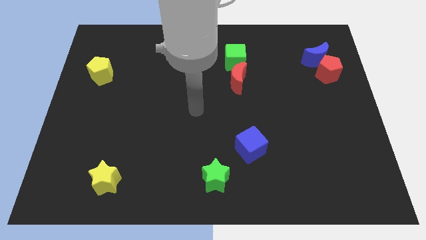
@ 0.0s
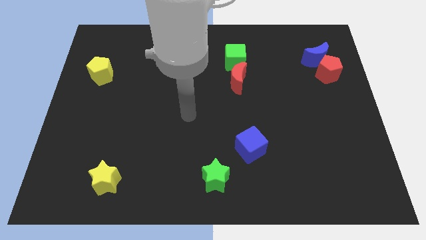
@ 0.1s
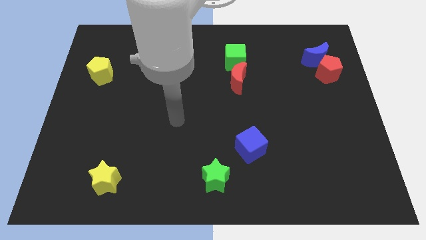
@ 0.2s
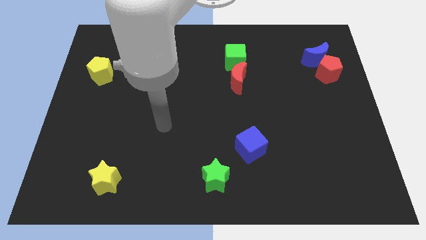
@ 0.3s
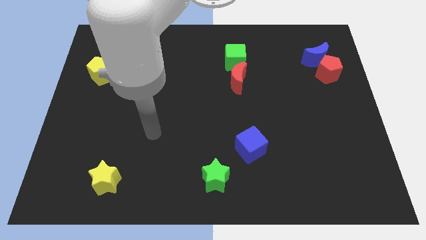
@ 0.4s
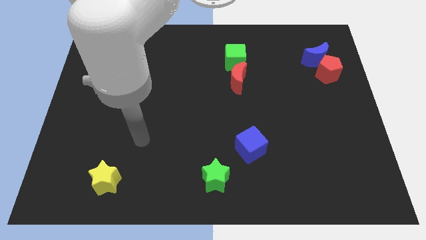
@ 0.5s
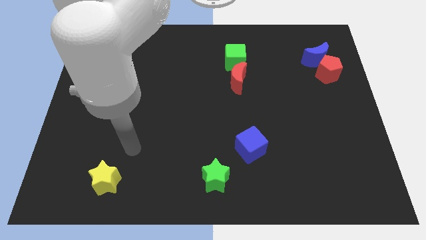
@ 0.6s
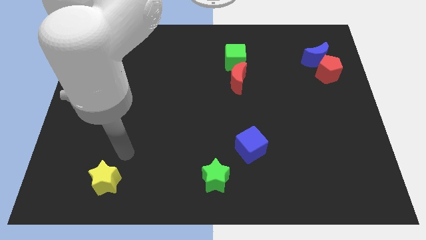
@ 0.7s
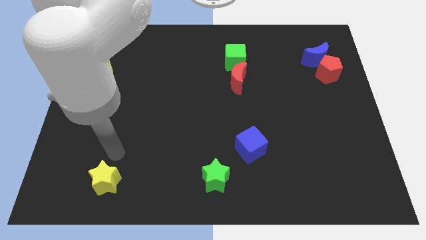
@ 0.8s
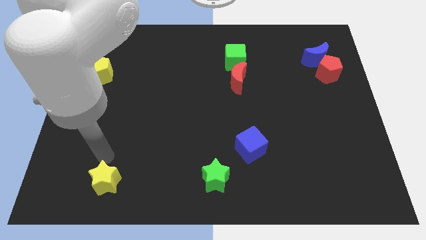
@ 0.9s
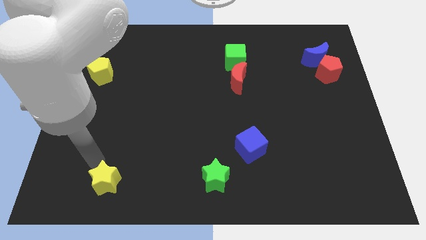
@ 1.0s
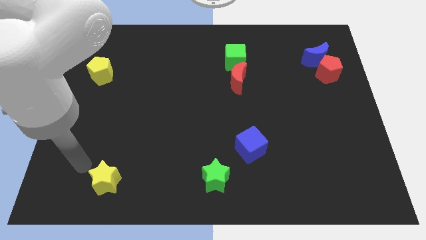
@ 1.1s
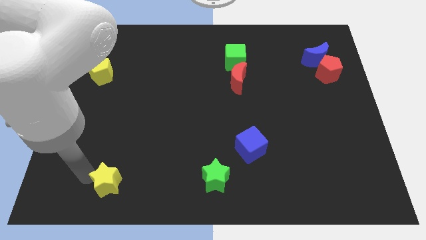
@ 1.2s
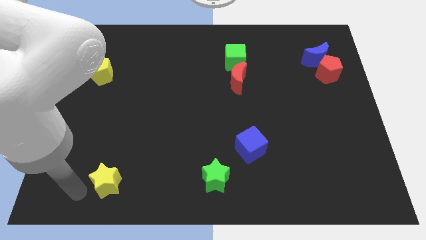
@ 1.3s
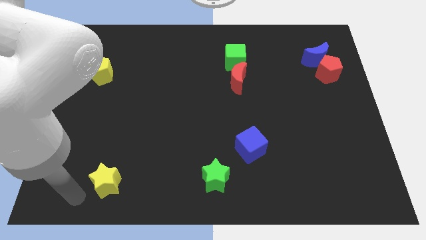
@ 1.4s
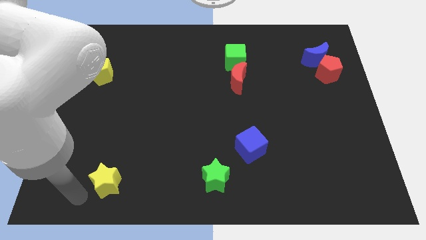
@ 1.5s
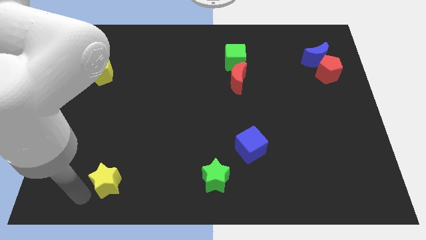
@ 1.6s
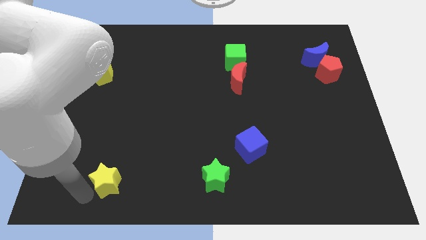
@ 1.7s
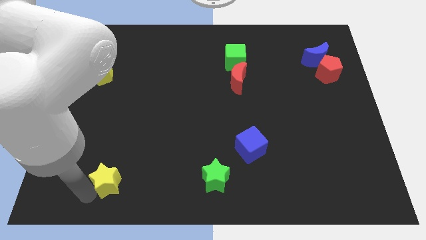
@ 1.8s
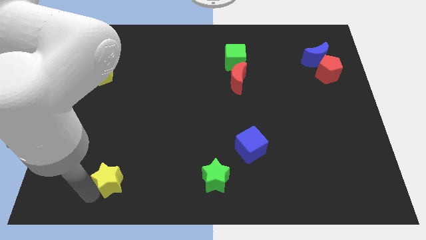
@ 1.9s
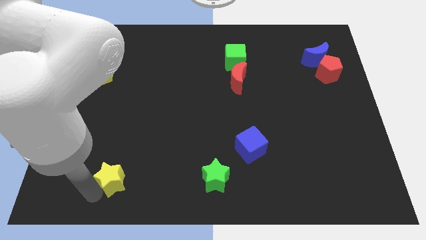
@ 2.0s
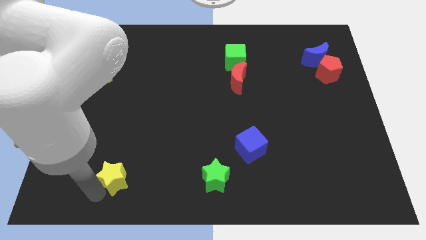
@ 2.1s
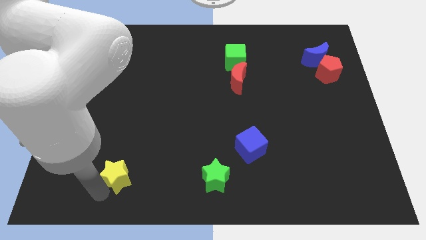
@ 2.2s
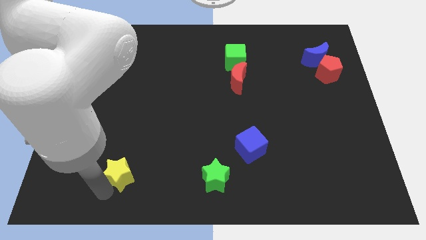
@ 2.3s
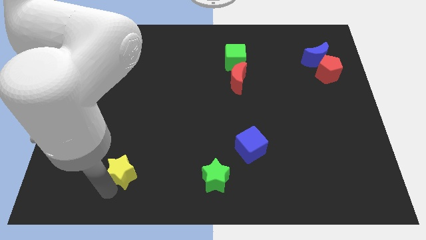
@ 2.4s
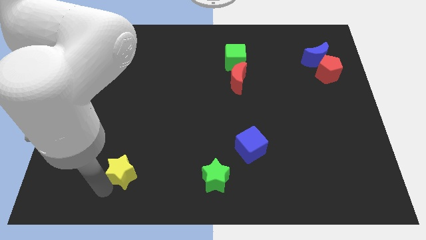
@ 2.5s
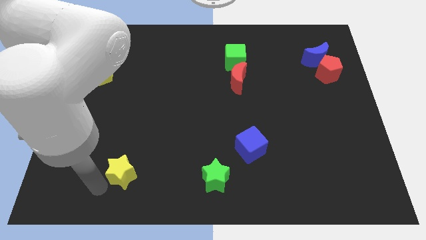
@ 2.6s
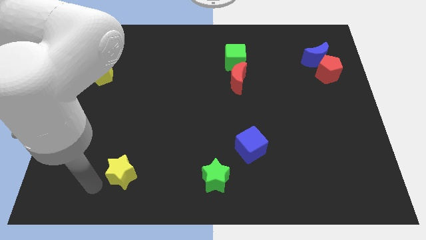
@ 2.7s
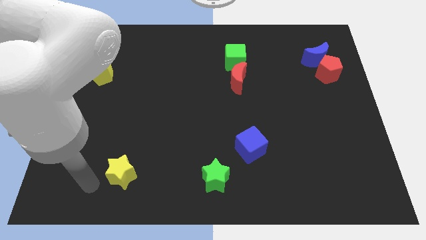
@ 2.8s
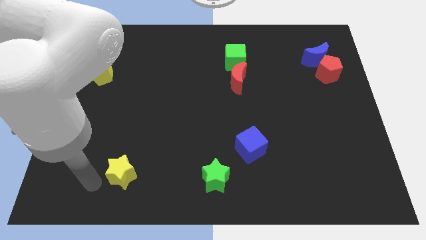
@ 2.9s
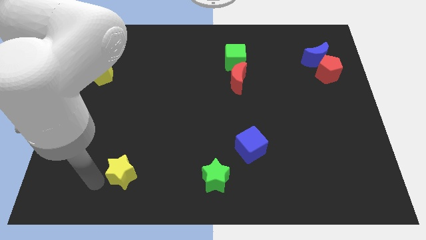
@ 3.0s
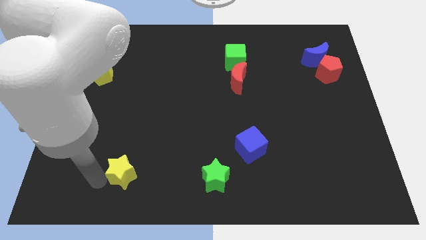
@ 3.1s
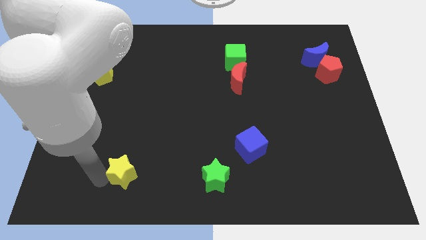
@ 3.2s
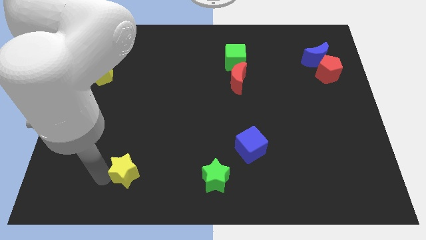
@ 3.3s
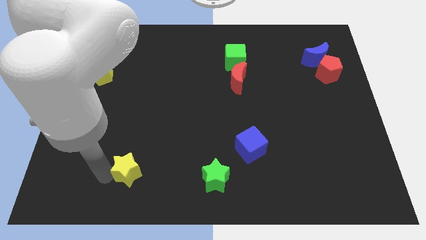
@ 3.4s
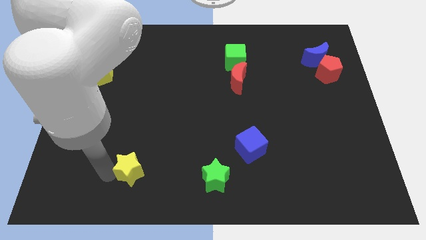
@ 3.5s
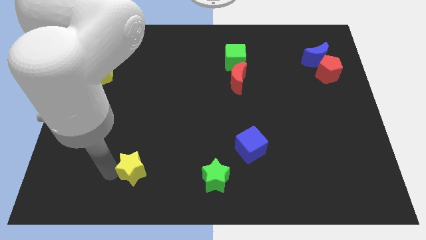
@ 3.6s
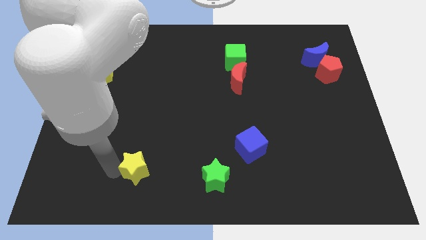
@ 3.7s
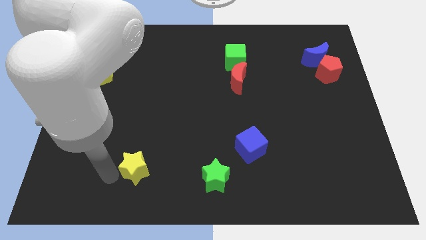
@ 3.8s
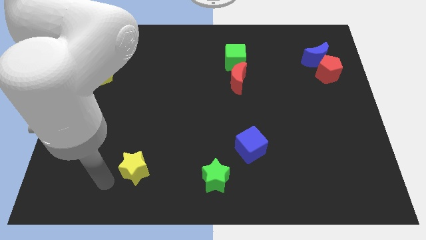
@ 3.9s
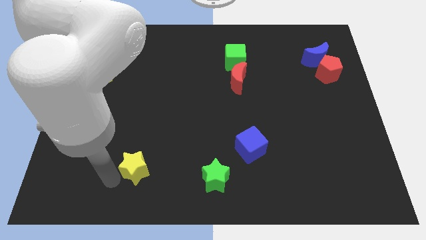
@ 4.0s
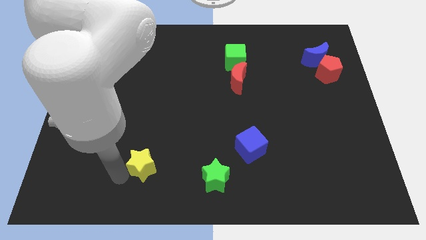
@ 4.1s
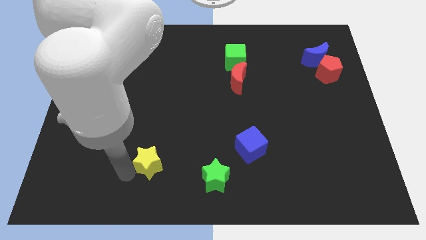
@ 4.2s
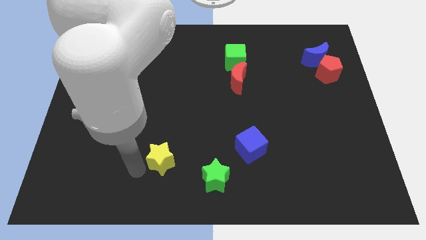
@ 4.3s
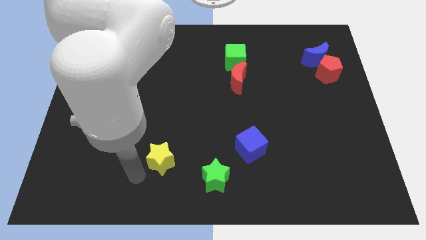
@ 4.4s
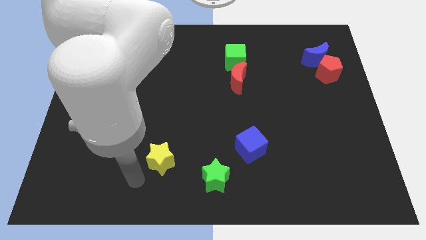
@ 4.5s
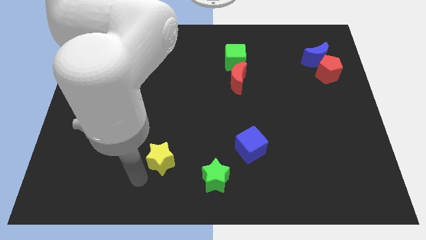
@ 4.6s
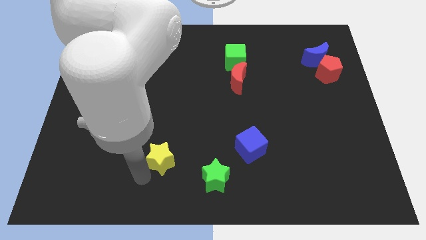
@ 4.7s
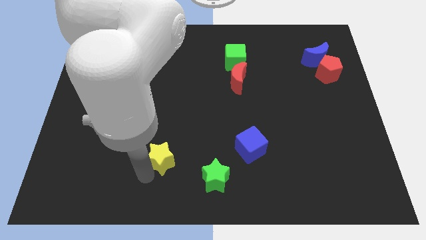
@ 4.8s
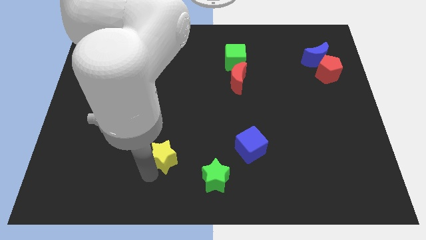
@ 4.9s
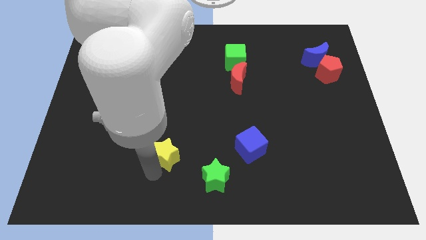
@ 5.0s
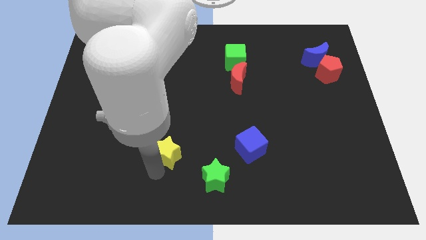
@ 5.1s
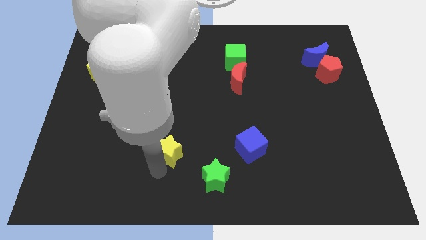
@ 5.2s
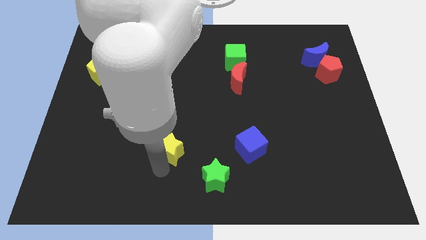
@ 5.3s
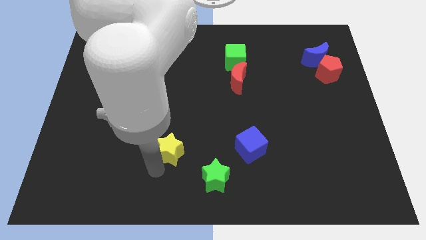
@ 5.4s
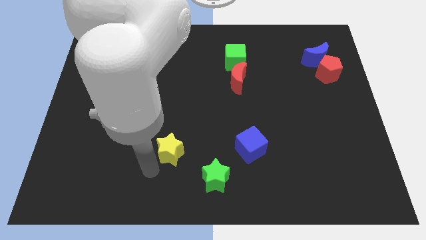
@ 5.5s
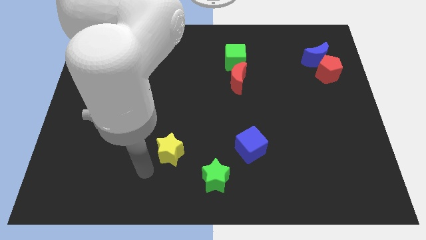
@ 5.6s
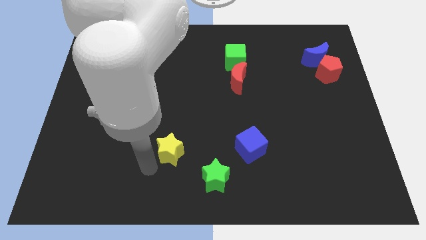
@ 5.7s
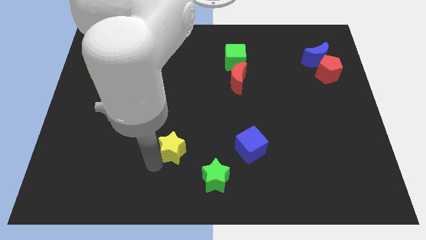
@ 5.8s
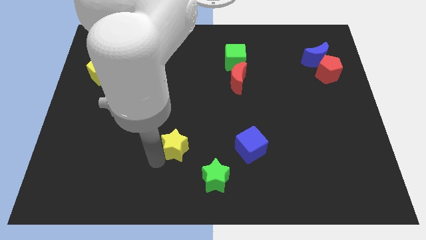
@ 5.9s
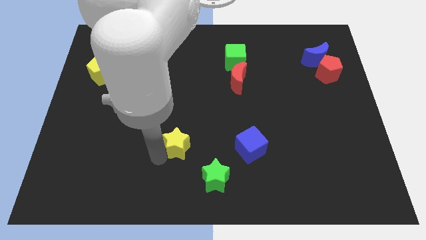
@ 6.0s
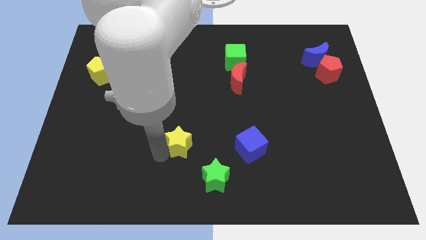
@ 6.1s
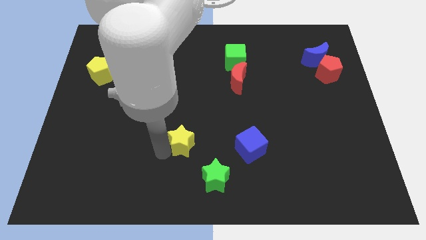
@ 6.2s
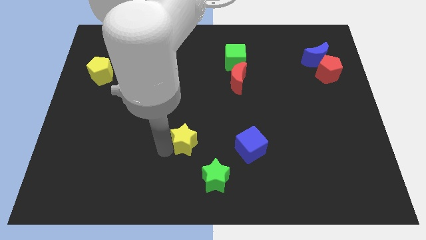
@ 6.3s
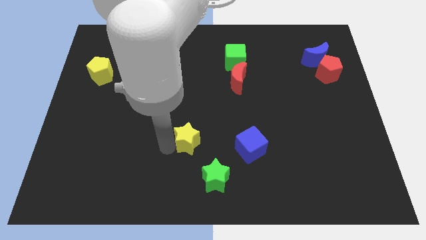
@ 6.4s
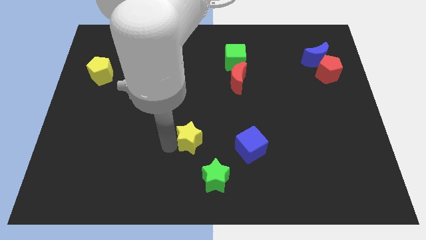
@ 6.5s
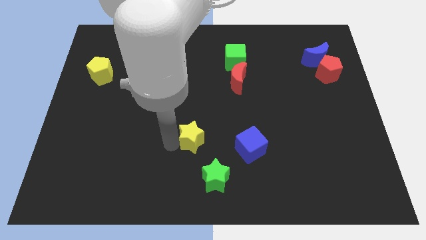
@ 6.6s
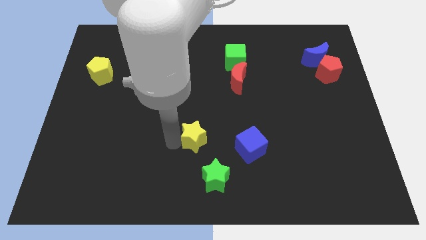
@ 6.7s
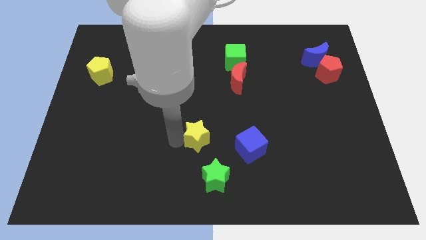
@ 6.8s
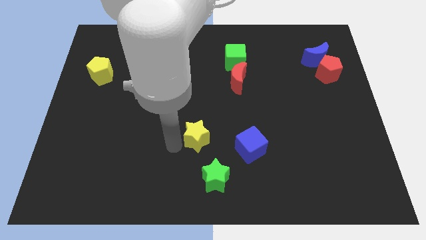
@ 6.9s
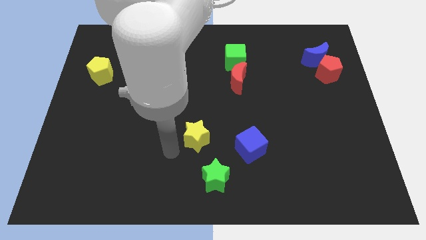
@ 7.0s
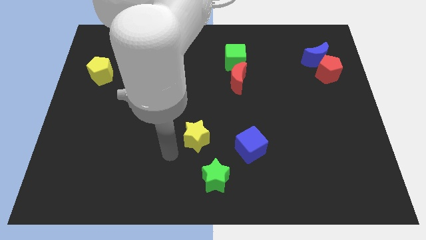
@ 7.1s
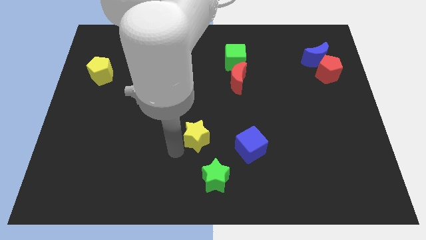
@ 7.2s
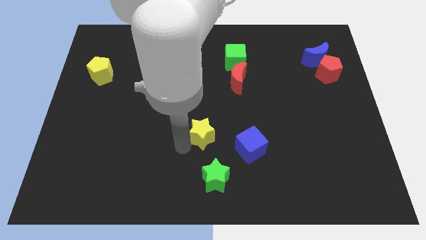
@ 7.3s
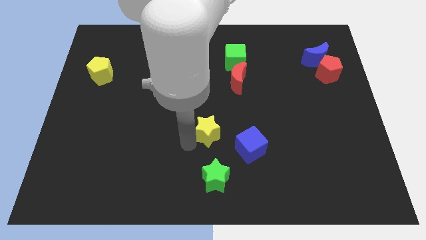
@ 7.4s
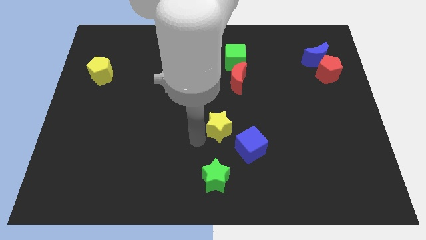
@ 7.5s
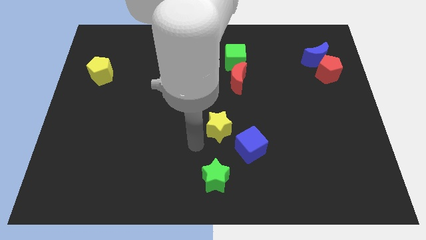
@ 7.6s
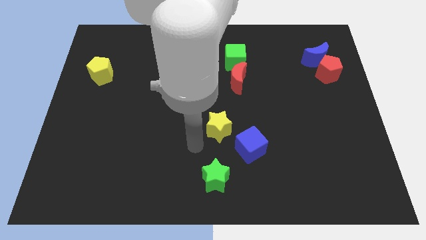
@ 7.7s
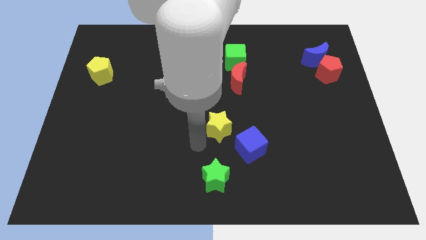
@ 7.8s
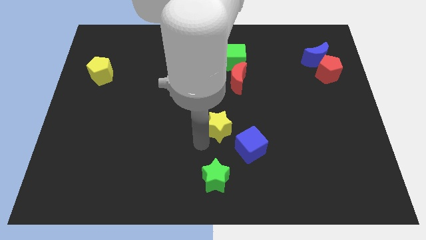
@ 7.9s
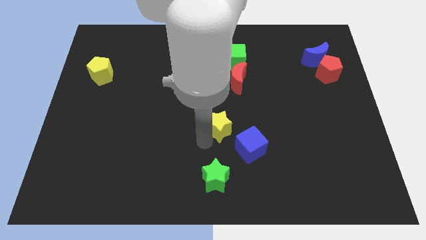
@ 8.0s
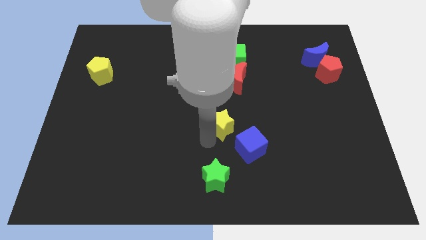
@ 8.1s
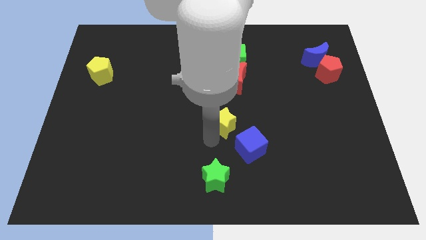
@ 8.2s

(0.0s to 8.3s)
move the yellow star to the bottom of the red moon
